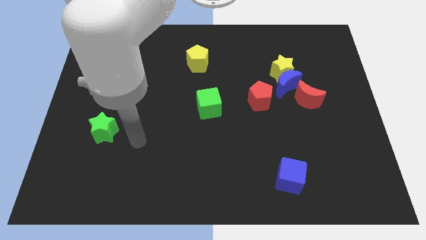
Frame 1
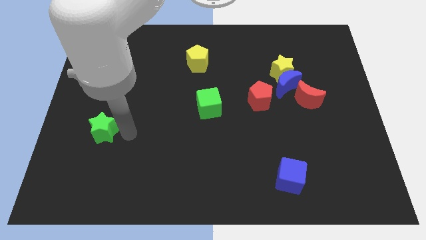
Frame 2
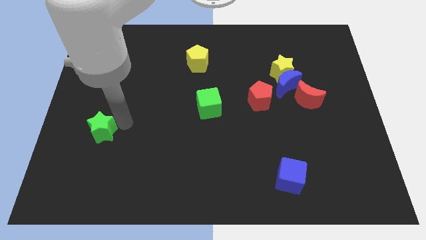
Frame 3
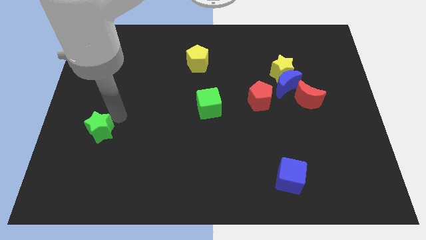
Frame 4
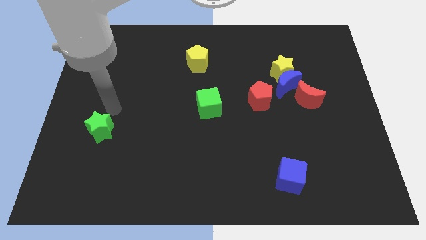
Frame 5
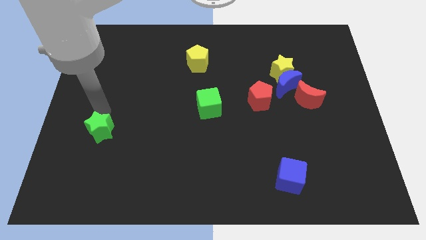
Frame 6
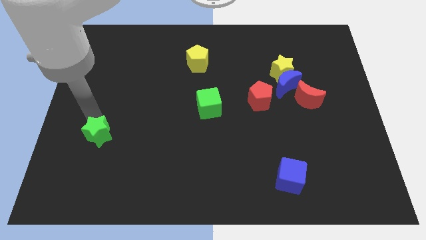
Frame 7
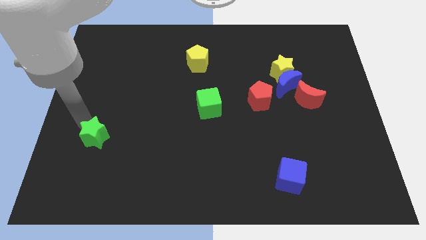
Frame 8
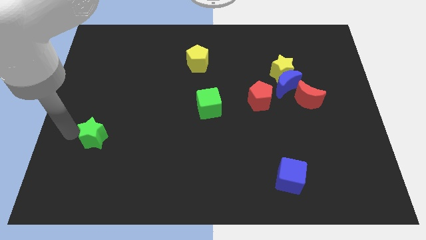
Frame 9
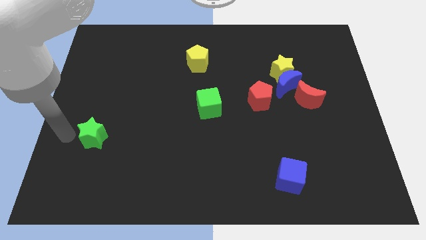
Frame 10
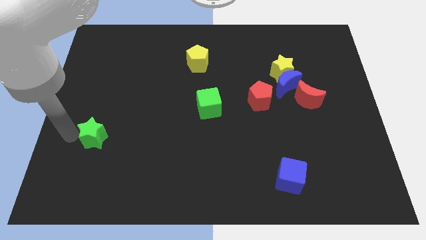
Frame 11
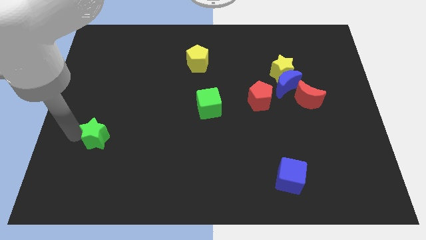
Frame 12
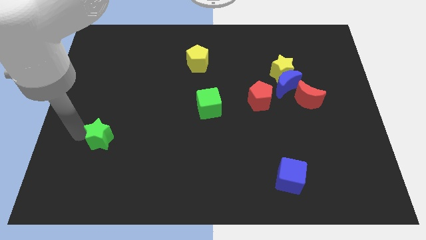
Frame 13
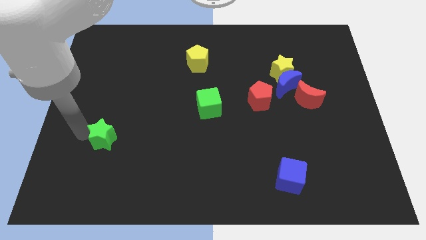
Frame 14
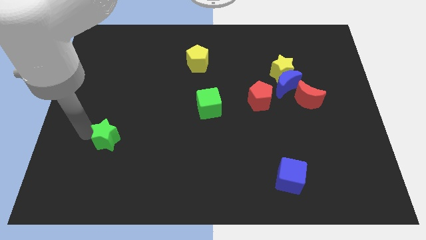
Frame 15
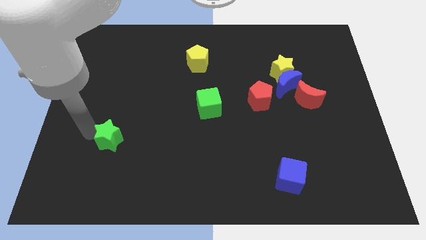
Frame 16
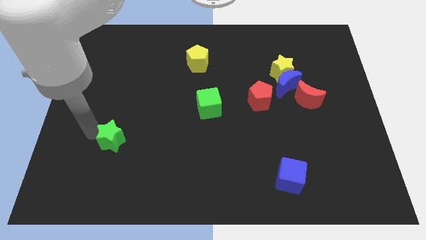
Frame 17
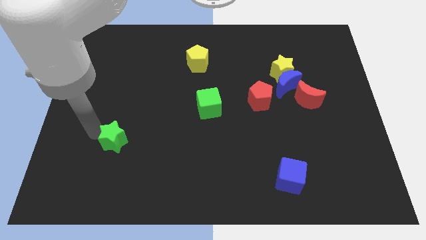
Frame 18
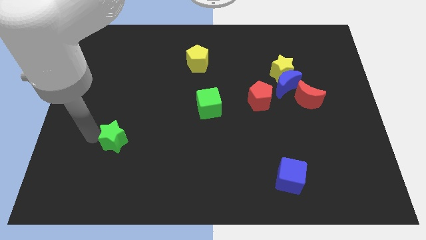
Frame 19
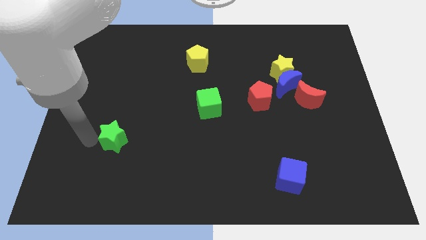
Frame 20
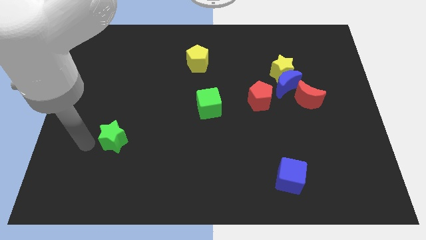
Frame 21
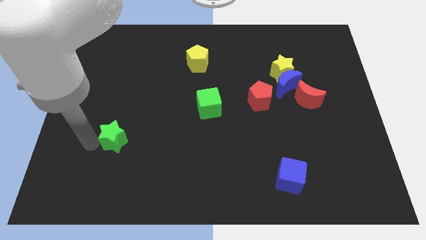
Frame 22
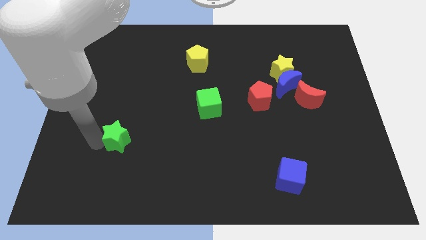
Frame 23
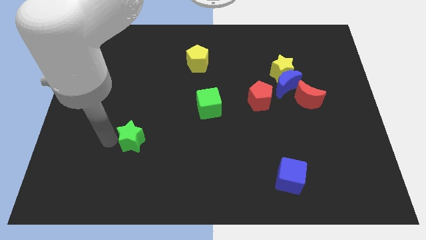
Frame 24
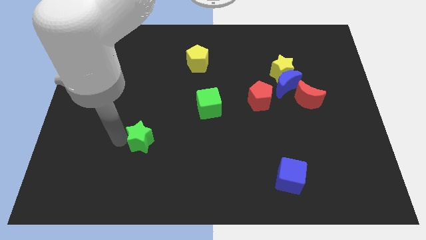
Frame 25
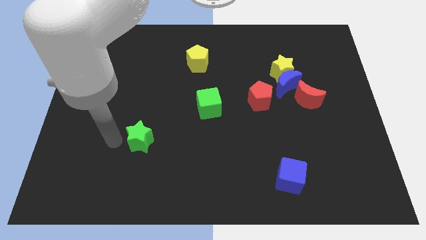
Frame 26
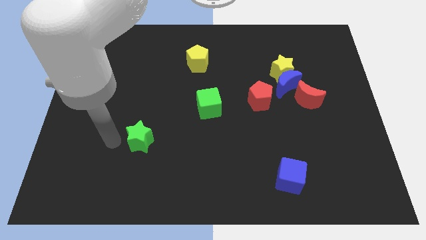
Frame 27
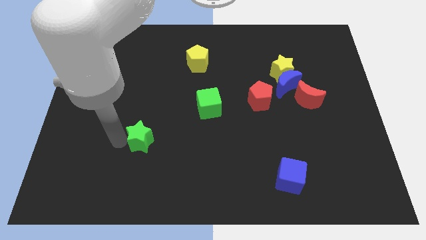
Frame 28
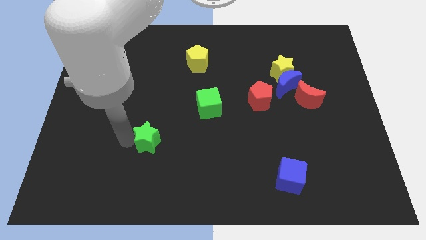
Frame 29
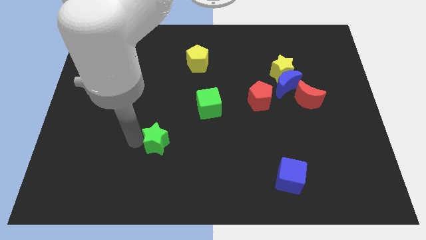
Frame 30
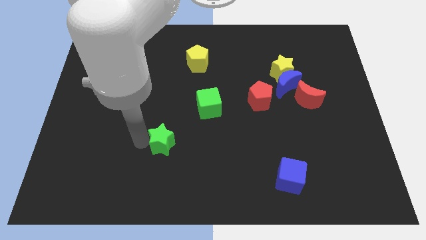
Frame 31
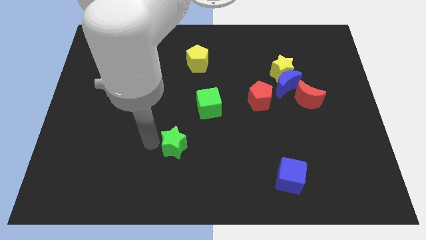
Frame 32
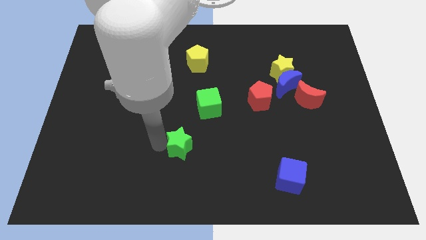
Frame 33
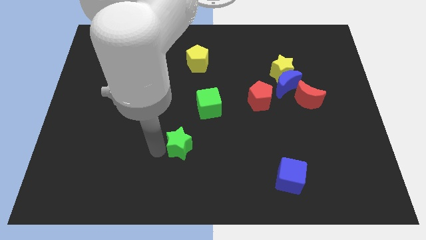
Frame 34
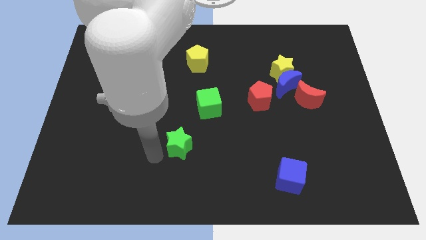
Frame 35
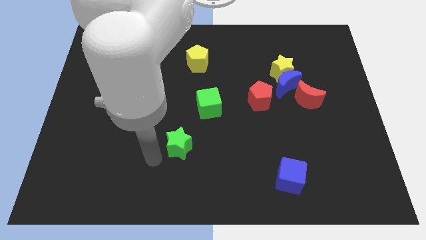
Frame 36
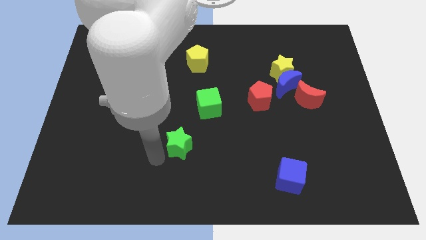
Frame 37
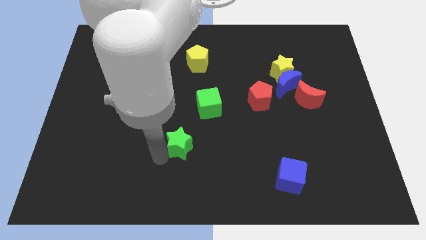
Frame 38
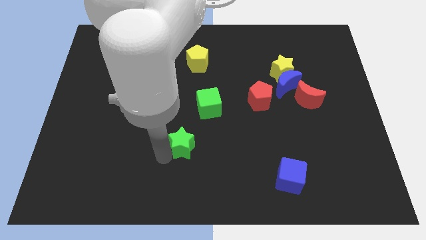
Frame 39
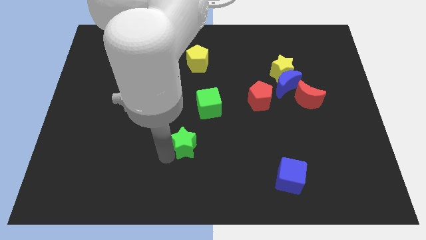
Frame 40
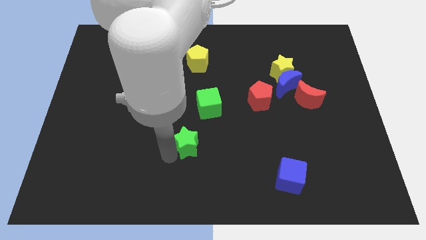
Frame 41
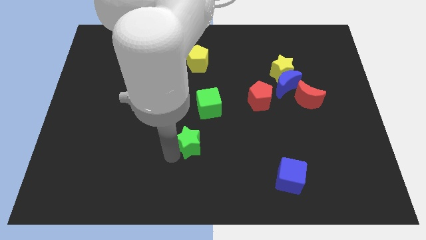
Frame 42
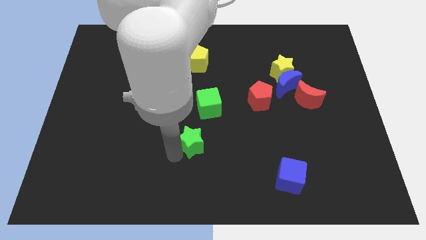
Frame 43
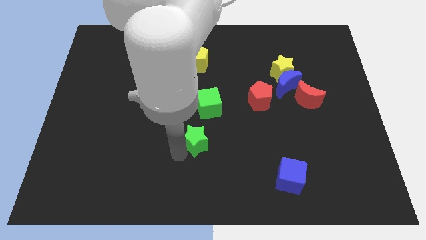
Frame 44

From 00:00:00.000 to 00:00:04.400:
slide the green star to the right

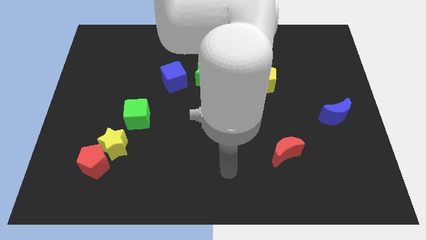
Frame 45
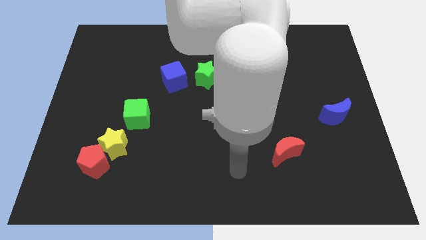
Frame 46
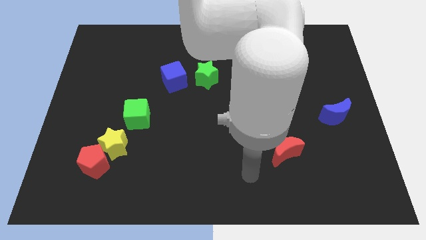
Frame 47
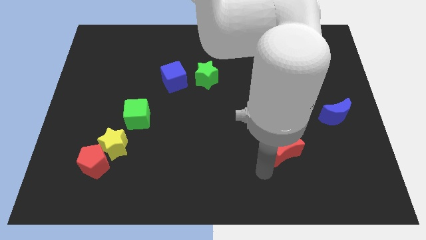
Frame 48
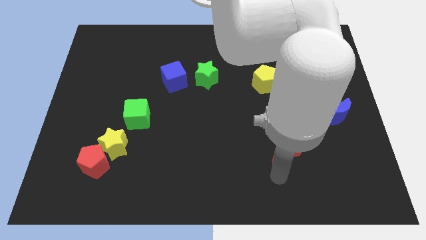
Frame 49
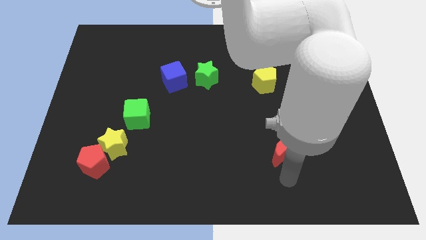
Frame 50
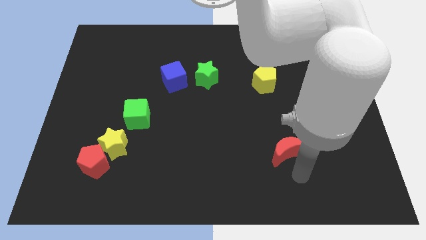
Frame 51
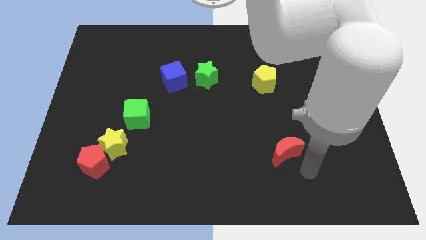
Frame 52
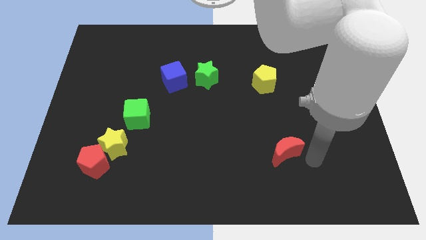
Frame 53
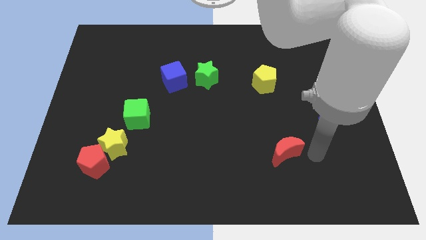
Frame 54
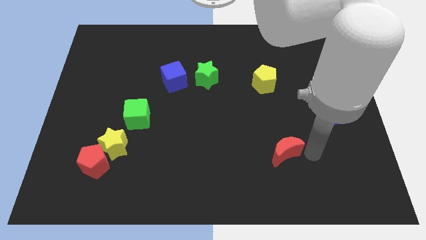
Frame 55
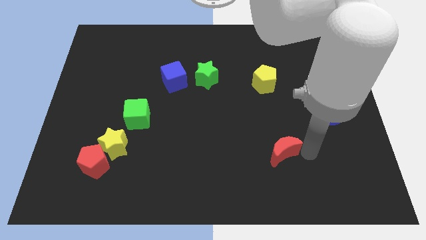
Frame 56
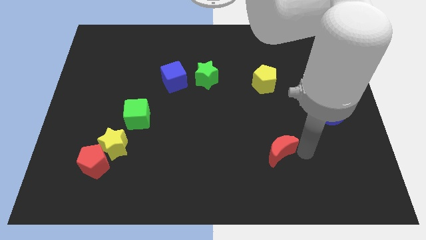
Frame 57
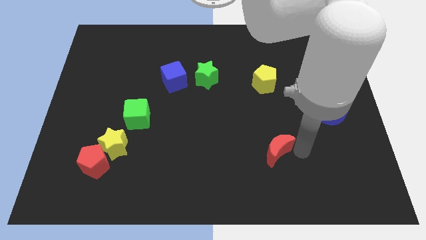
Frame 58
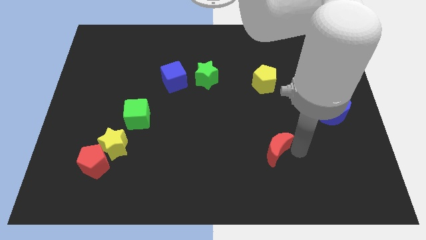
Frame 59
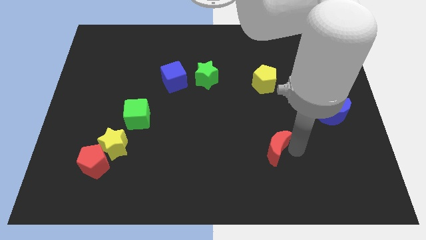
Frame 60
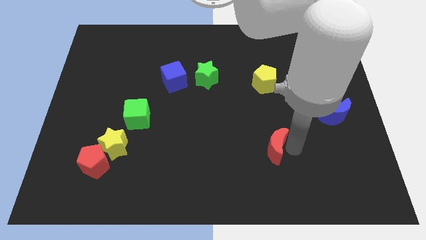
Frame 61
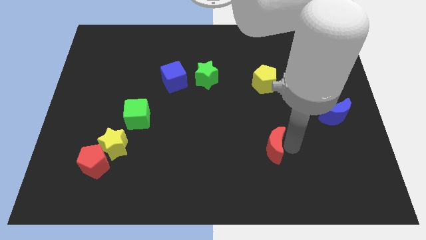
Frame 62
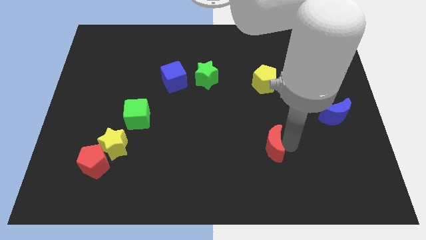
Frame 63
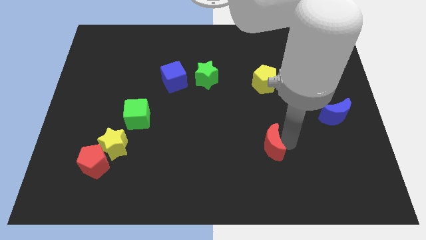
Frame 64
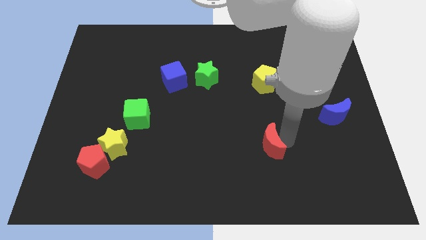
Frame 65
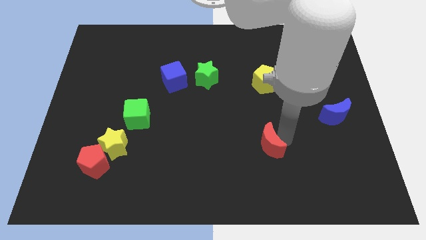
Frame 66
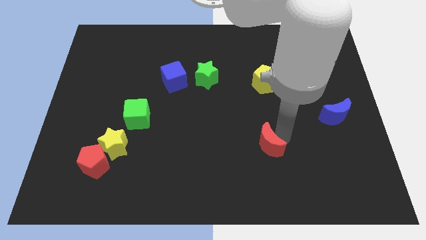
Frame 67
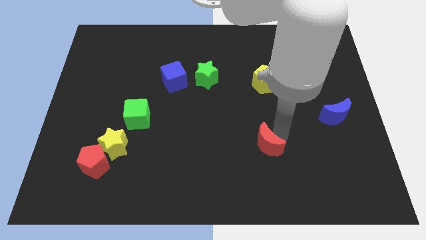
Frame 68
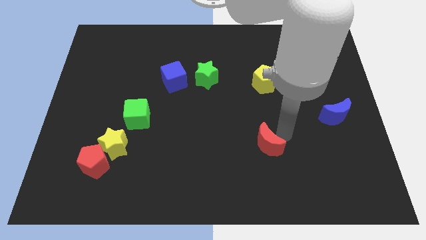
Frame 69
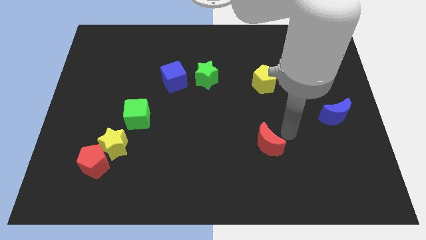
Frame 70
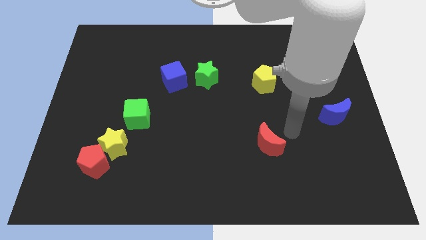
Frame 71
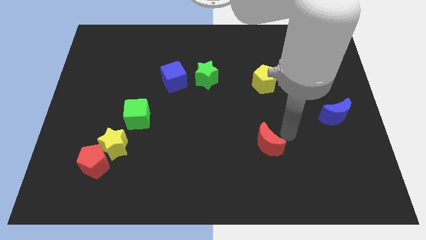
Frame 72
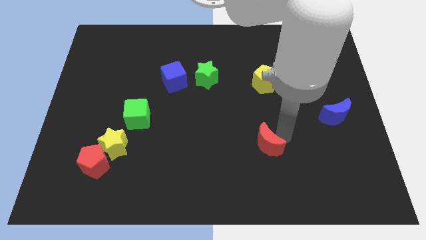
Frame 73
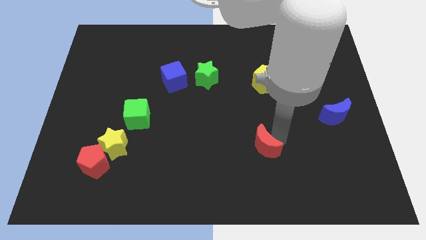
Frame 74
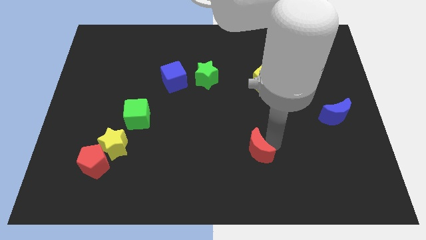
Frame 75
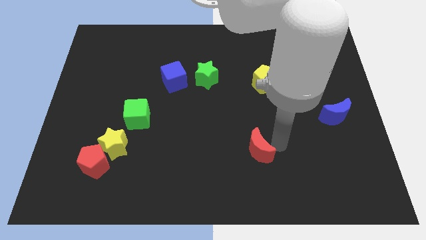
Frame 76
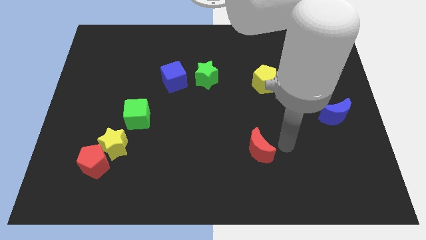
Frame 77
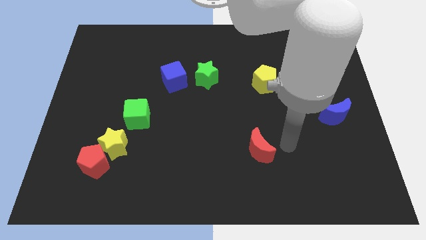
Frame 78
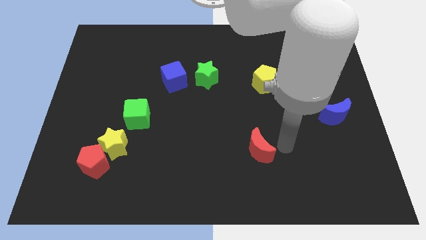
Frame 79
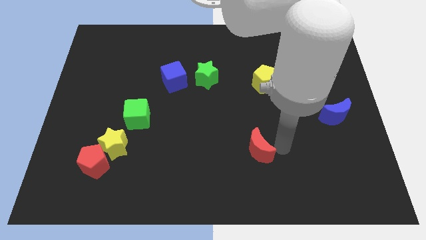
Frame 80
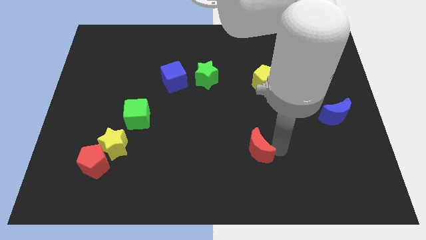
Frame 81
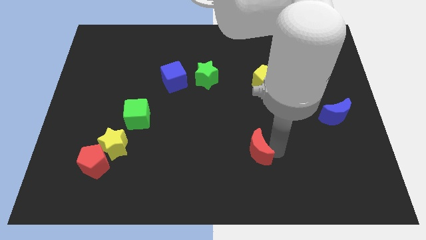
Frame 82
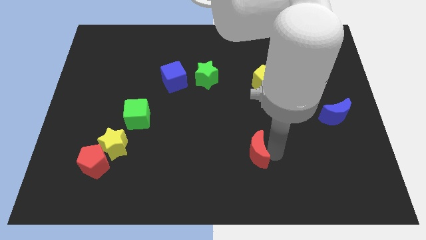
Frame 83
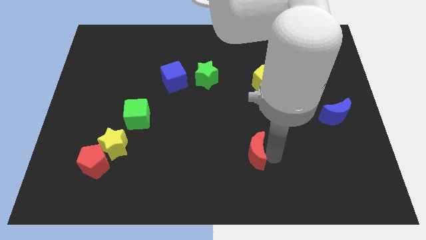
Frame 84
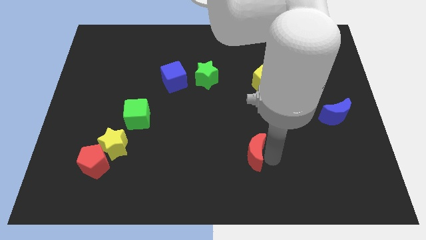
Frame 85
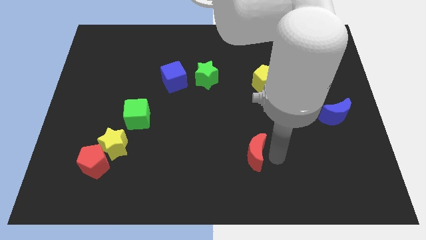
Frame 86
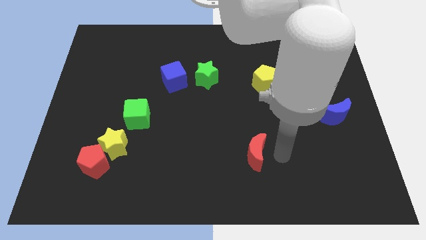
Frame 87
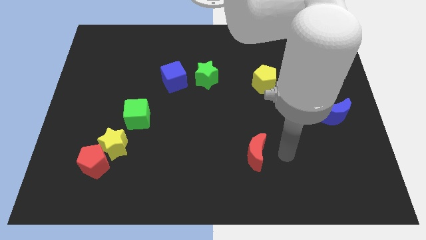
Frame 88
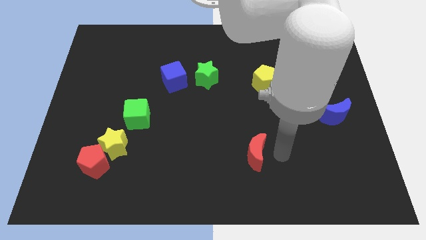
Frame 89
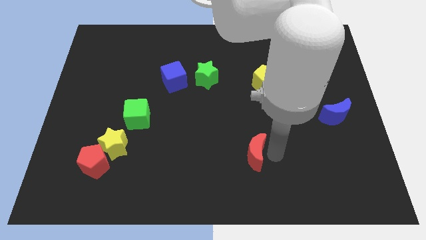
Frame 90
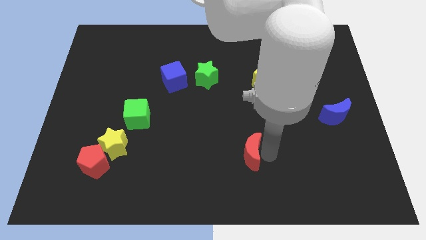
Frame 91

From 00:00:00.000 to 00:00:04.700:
slide the red moon left slightly
